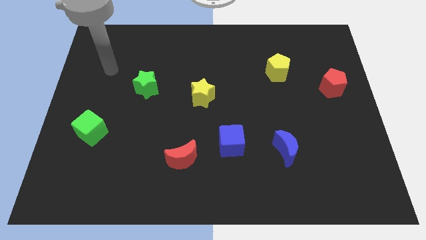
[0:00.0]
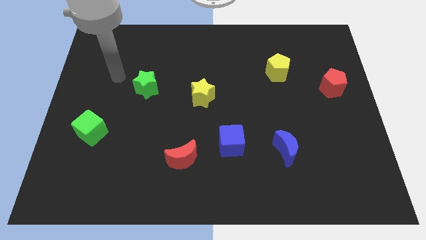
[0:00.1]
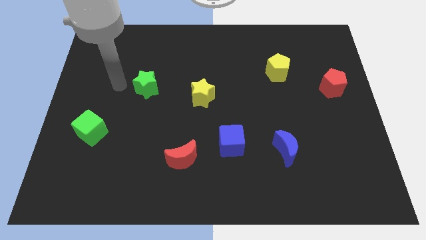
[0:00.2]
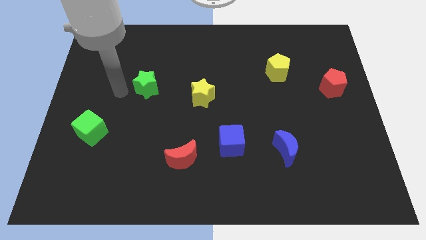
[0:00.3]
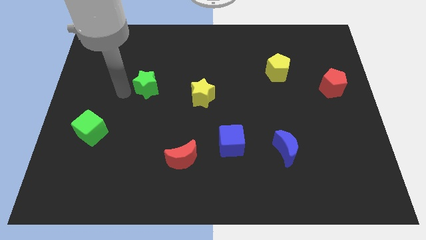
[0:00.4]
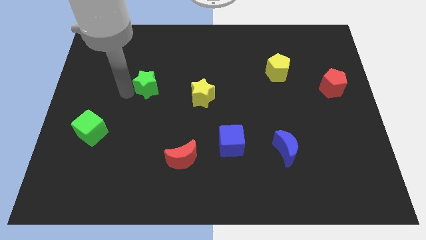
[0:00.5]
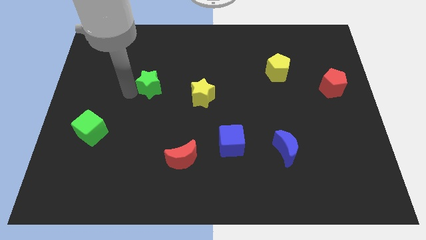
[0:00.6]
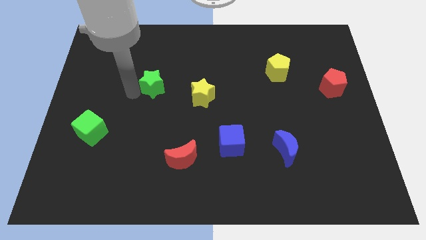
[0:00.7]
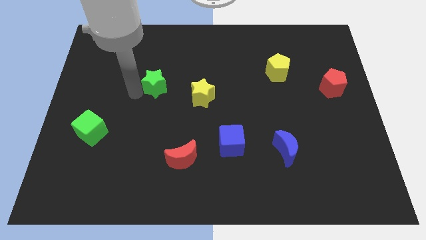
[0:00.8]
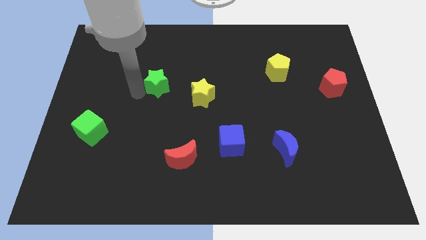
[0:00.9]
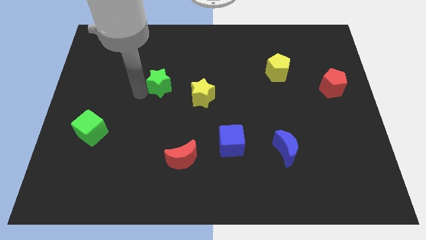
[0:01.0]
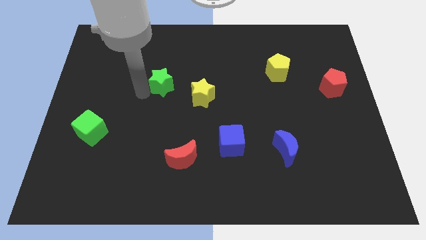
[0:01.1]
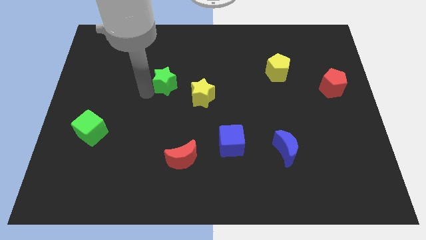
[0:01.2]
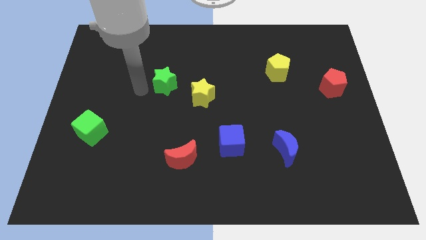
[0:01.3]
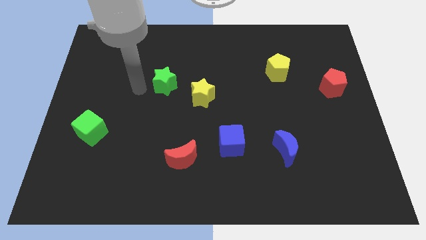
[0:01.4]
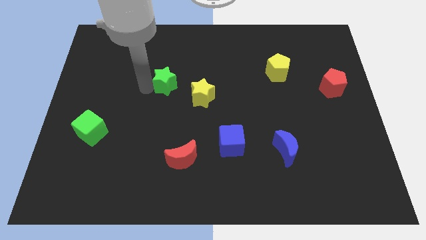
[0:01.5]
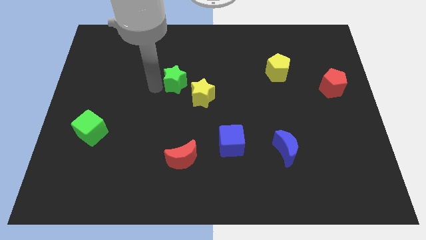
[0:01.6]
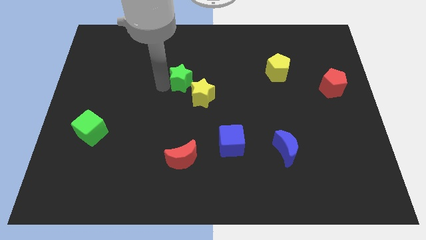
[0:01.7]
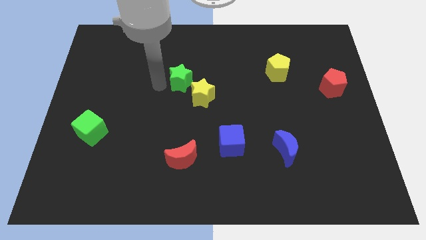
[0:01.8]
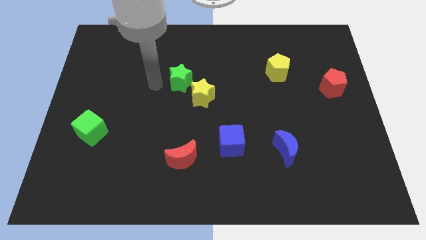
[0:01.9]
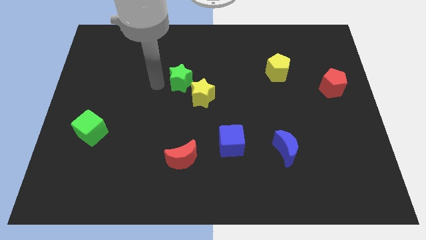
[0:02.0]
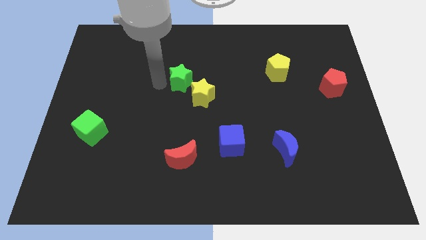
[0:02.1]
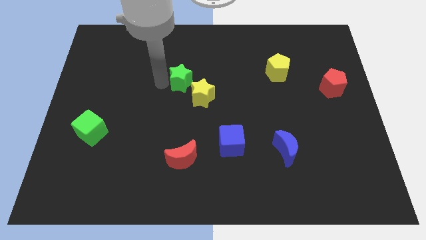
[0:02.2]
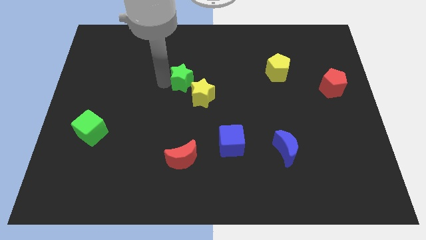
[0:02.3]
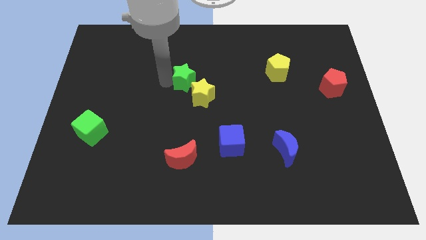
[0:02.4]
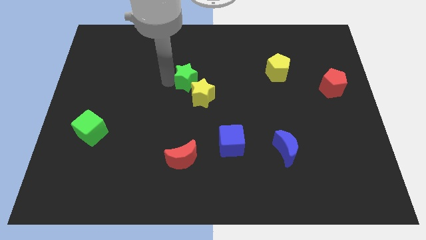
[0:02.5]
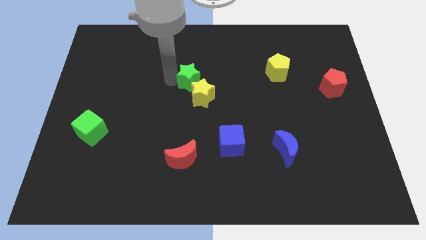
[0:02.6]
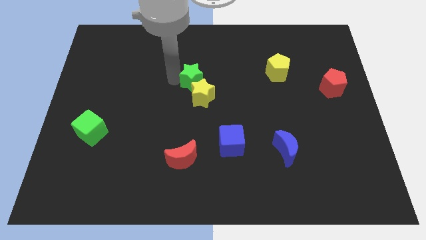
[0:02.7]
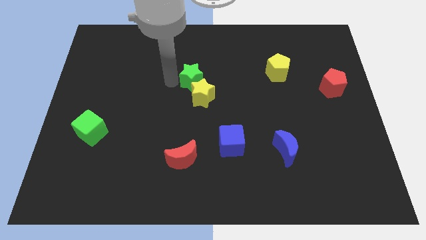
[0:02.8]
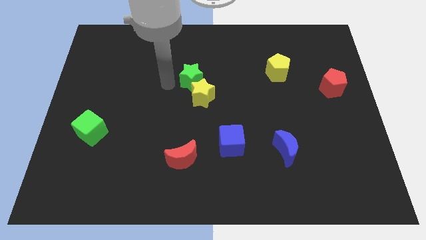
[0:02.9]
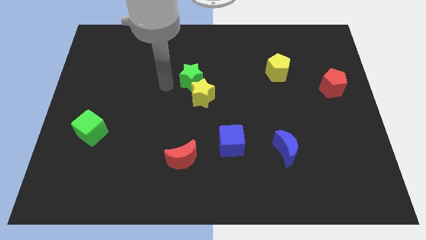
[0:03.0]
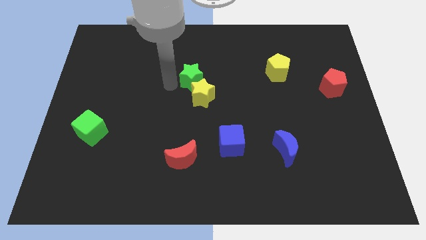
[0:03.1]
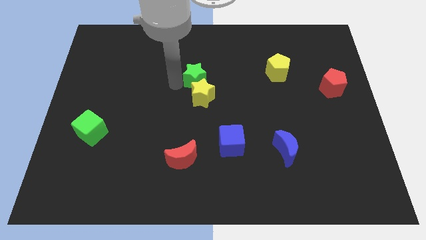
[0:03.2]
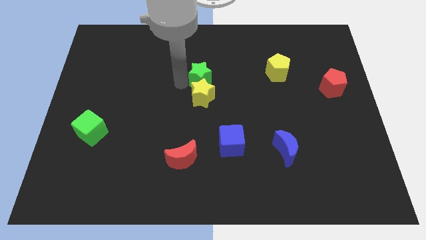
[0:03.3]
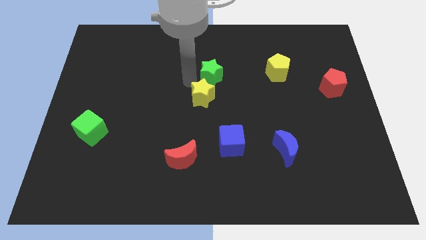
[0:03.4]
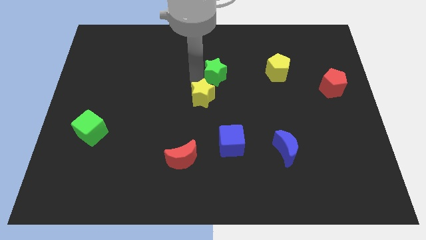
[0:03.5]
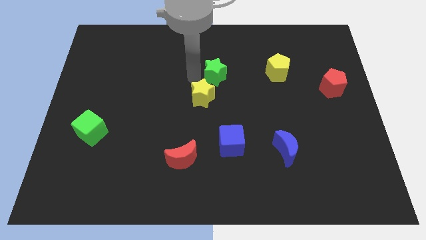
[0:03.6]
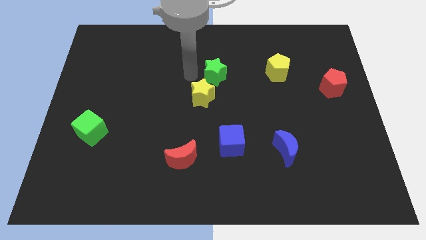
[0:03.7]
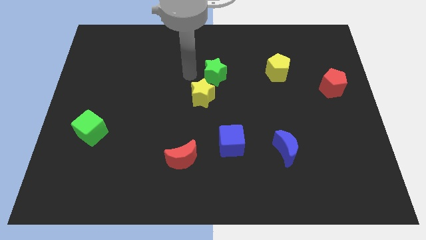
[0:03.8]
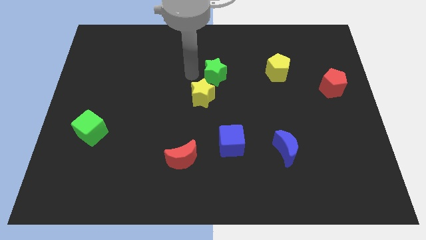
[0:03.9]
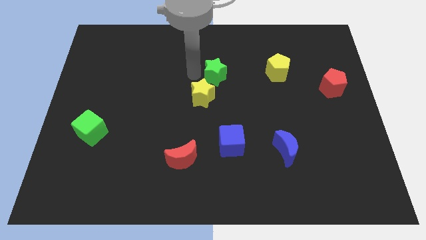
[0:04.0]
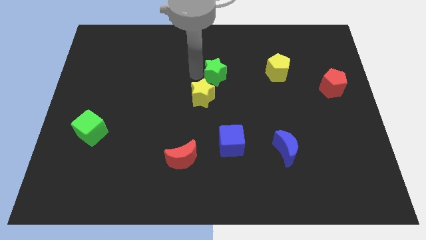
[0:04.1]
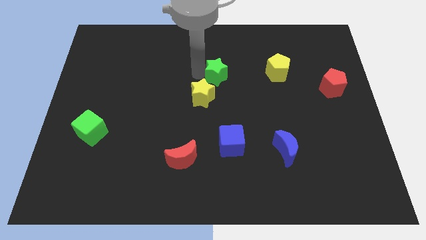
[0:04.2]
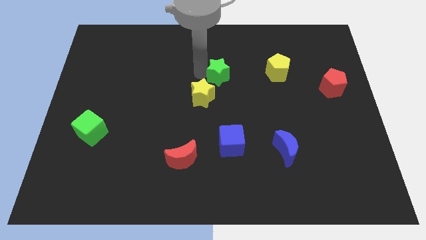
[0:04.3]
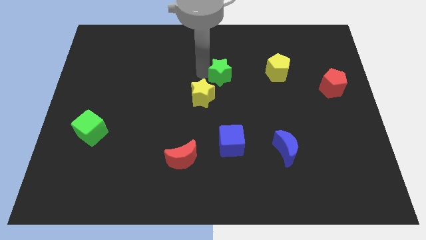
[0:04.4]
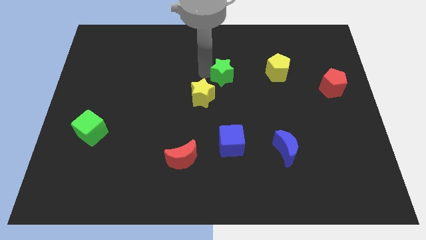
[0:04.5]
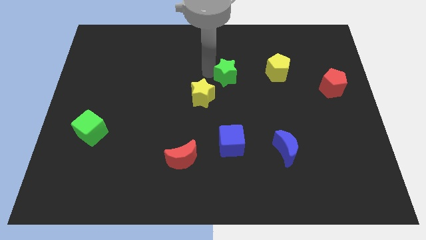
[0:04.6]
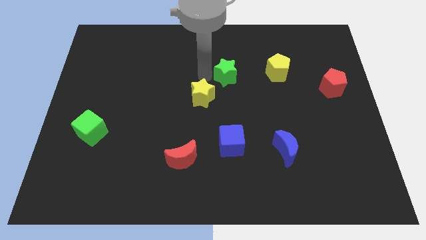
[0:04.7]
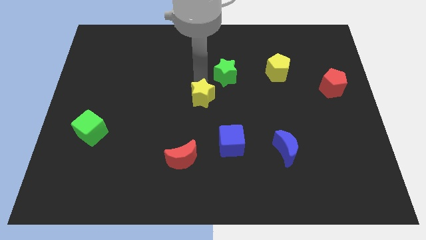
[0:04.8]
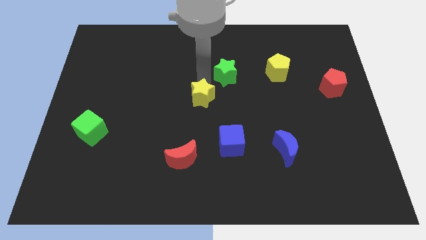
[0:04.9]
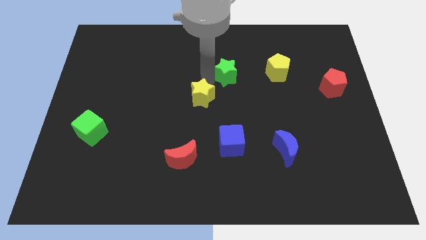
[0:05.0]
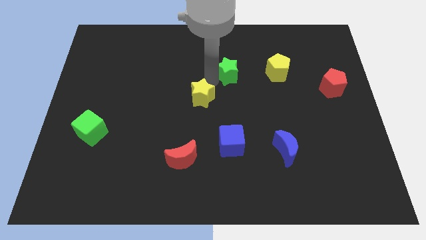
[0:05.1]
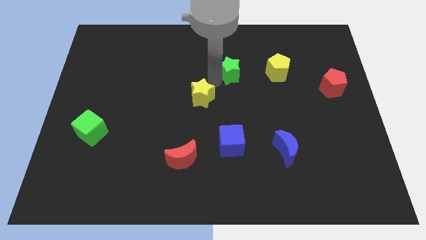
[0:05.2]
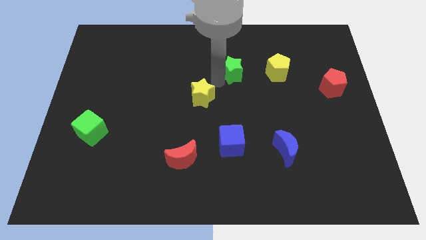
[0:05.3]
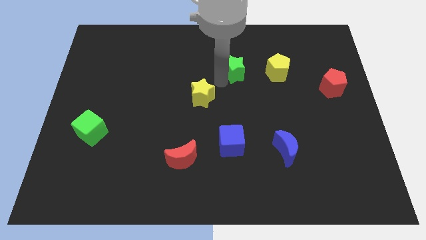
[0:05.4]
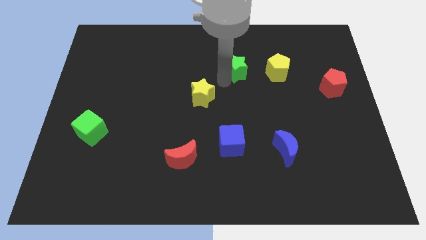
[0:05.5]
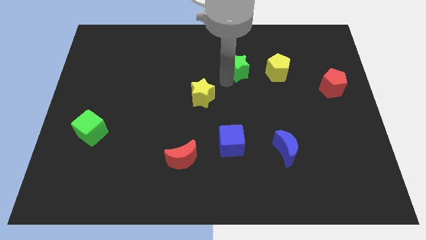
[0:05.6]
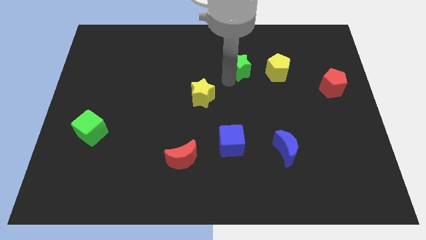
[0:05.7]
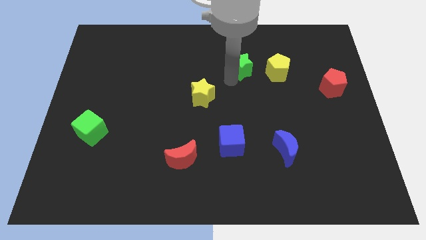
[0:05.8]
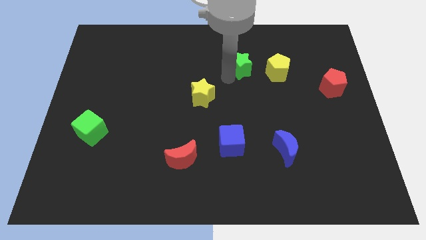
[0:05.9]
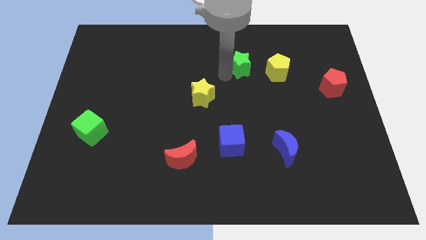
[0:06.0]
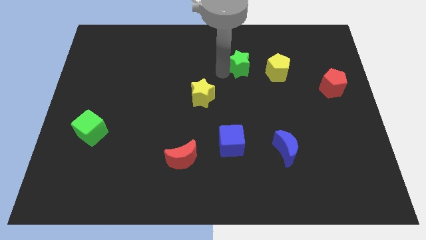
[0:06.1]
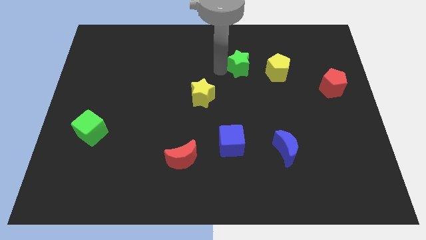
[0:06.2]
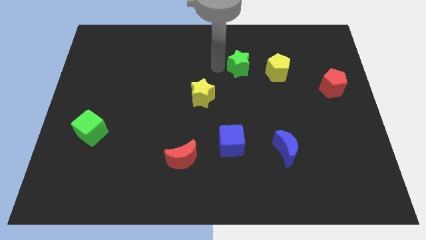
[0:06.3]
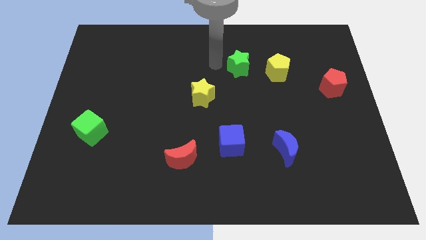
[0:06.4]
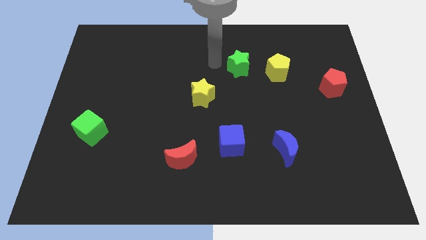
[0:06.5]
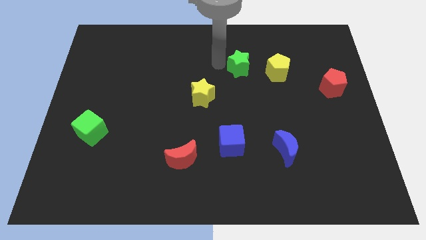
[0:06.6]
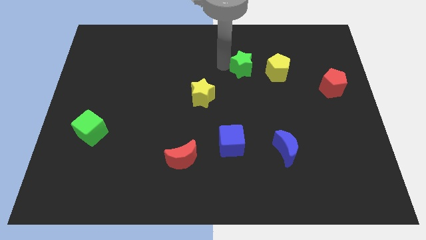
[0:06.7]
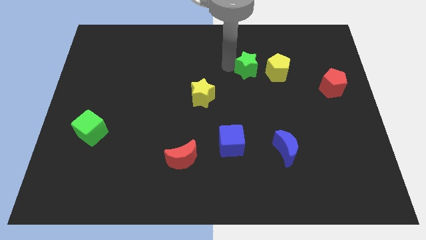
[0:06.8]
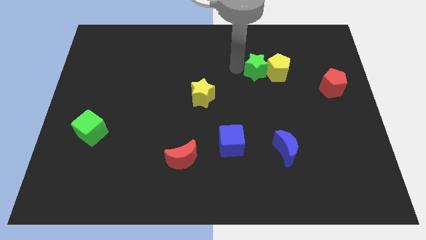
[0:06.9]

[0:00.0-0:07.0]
push the green star close to the yellow pentagon
